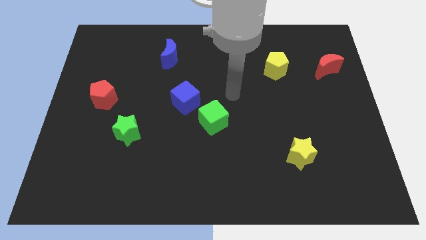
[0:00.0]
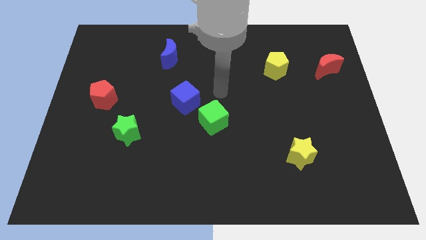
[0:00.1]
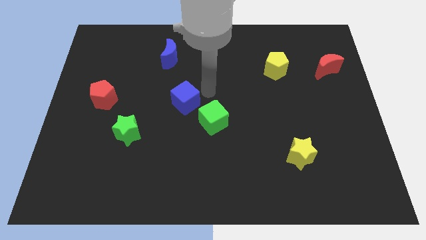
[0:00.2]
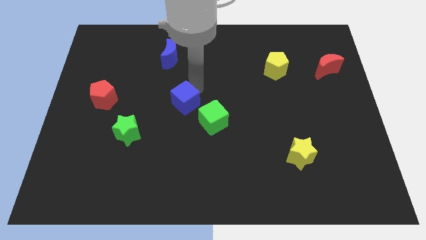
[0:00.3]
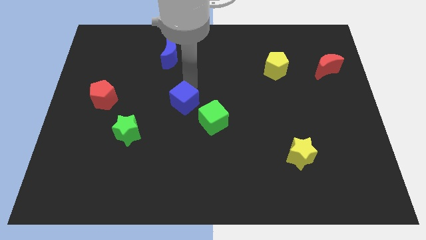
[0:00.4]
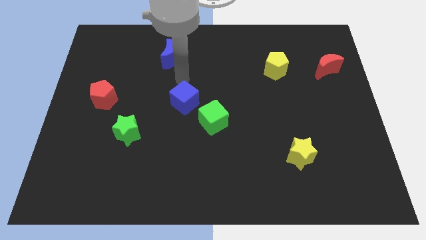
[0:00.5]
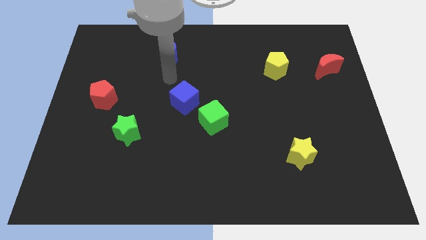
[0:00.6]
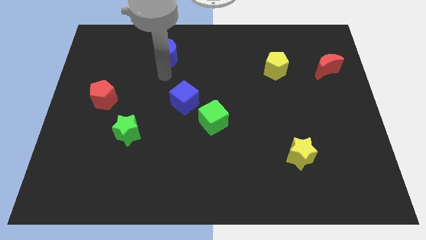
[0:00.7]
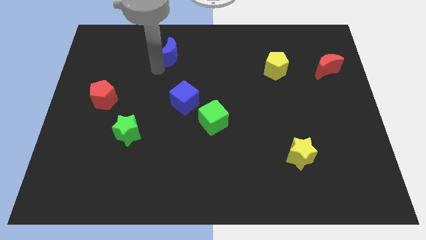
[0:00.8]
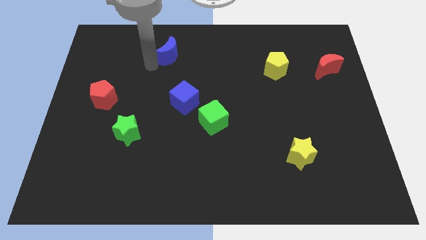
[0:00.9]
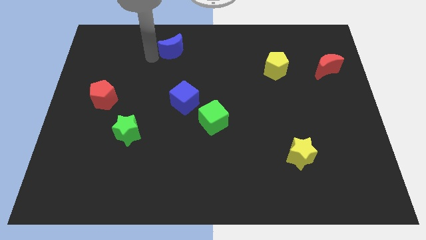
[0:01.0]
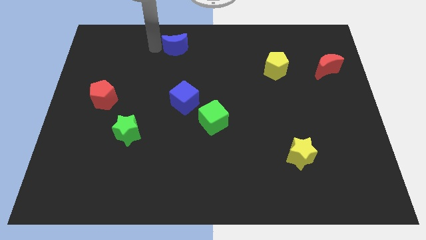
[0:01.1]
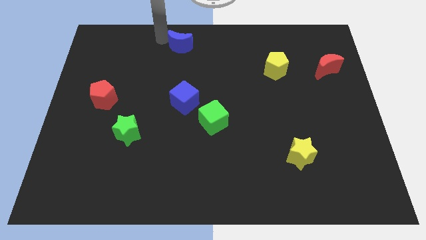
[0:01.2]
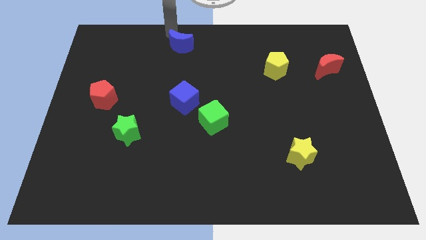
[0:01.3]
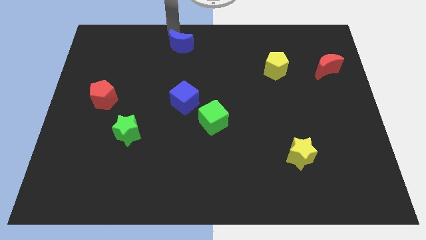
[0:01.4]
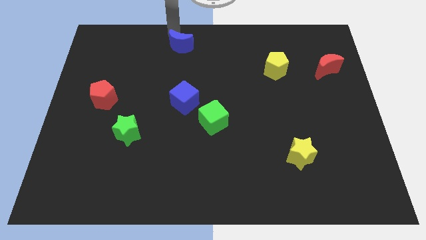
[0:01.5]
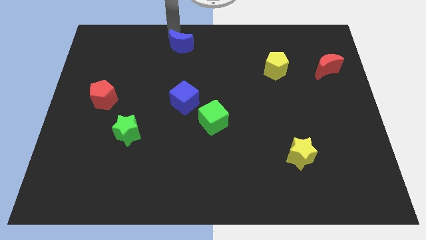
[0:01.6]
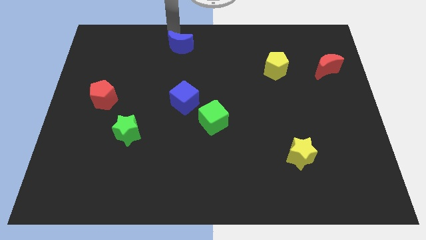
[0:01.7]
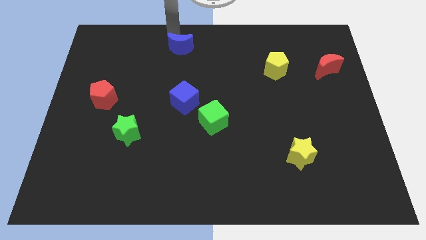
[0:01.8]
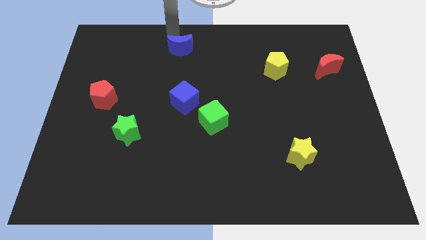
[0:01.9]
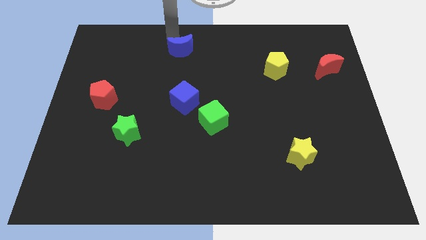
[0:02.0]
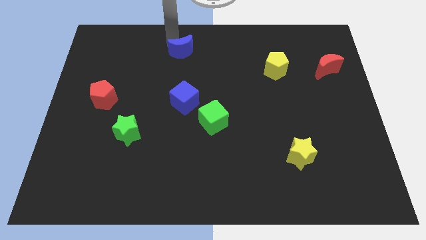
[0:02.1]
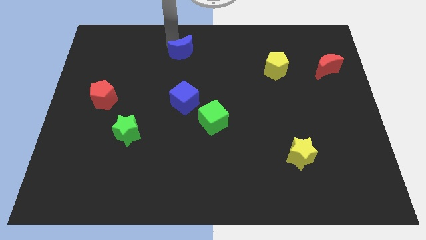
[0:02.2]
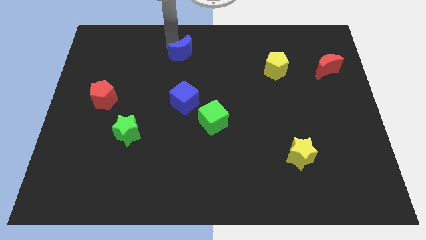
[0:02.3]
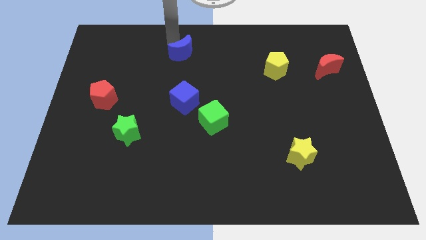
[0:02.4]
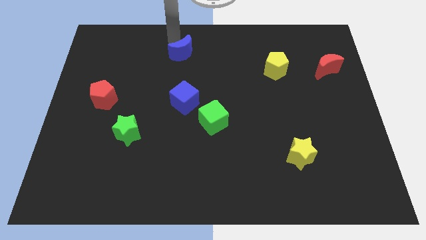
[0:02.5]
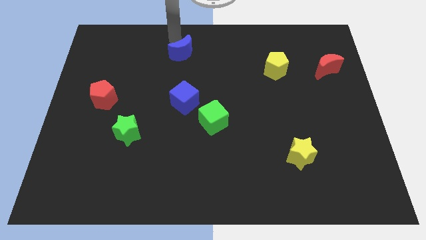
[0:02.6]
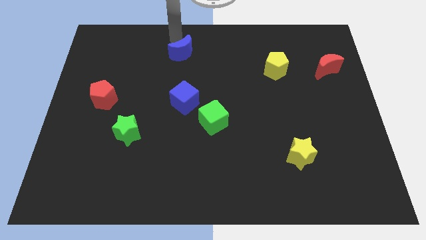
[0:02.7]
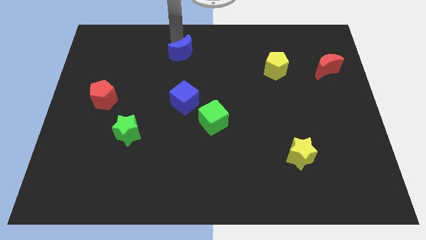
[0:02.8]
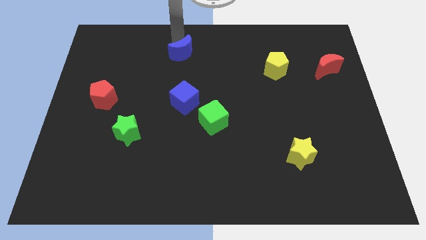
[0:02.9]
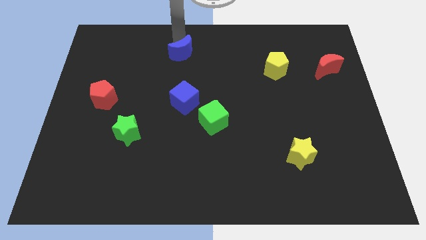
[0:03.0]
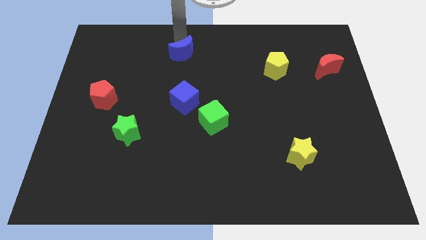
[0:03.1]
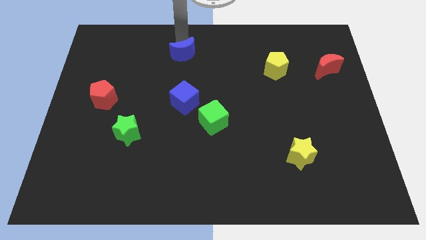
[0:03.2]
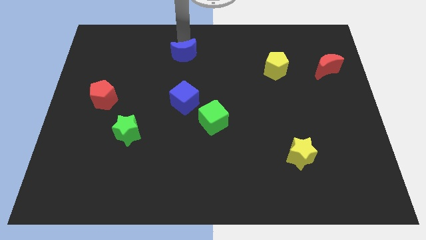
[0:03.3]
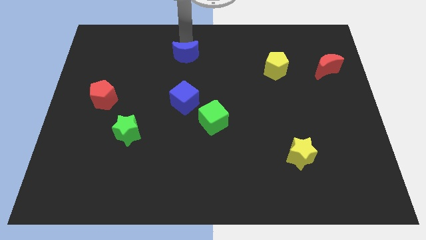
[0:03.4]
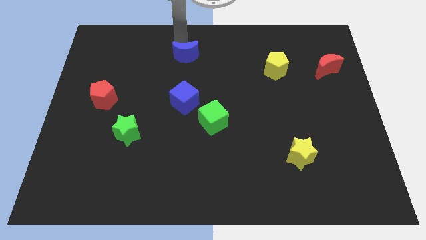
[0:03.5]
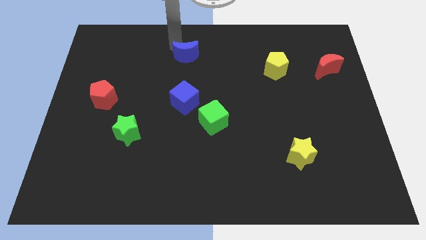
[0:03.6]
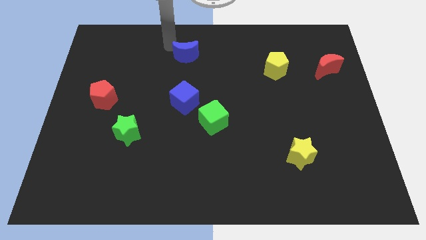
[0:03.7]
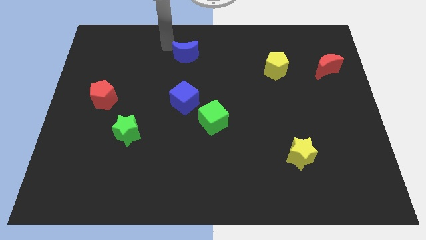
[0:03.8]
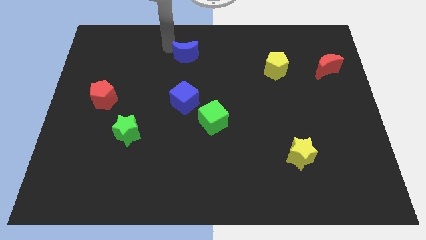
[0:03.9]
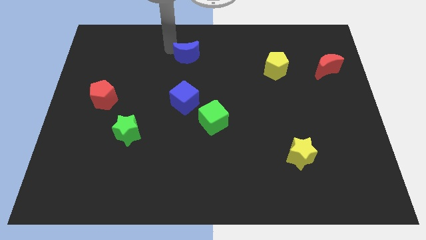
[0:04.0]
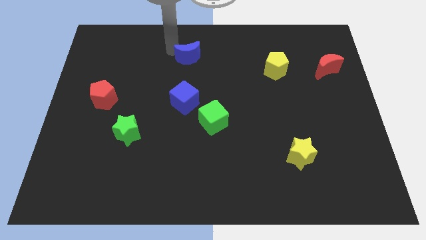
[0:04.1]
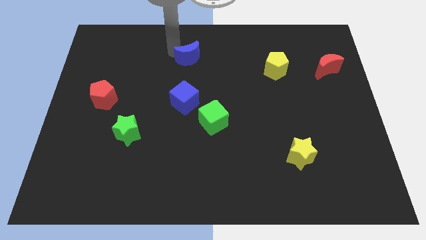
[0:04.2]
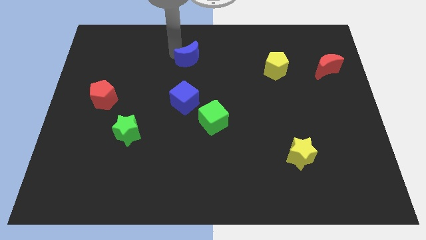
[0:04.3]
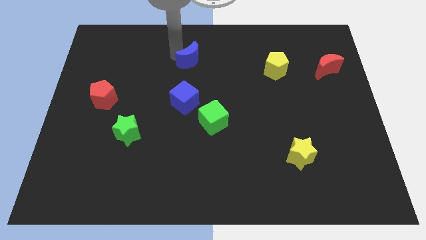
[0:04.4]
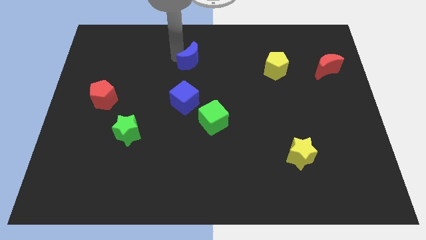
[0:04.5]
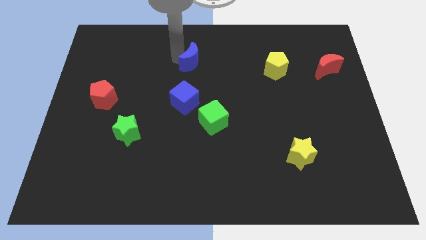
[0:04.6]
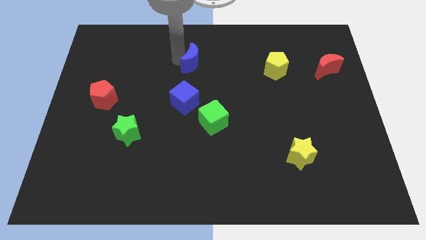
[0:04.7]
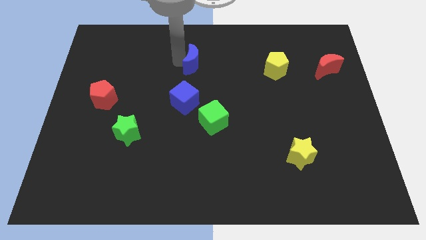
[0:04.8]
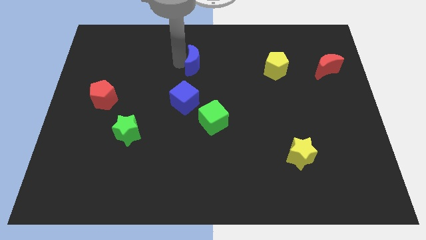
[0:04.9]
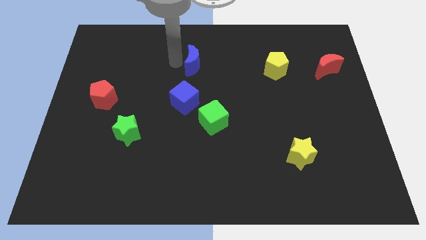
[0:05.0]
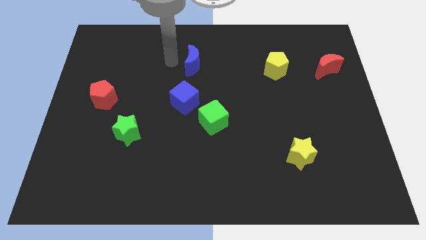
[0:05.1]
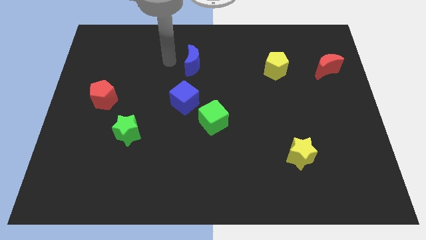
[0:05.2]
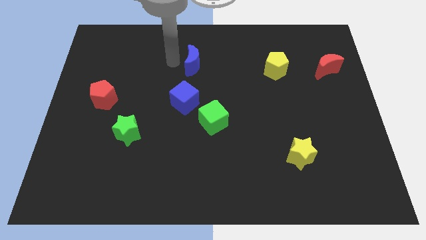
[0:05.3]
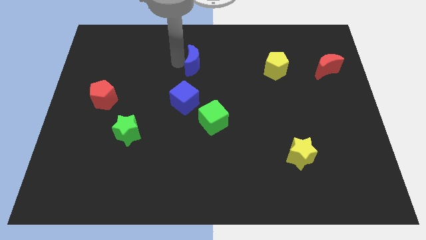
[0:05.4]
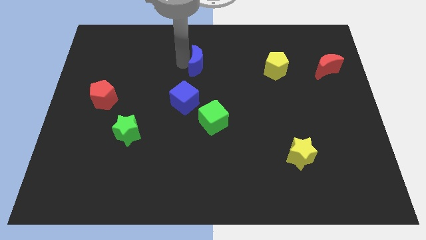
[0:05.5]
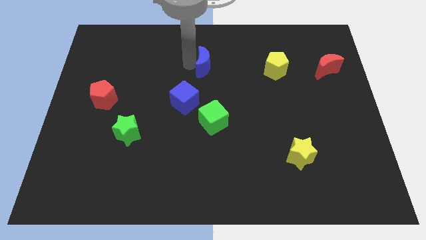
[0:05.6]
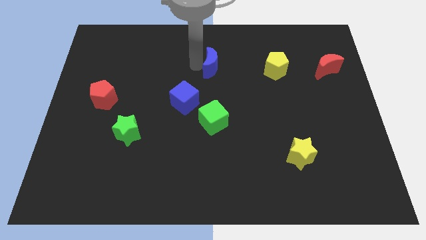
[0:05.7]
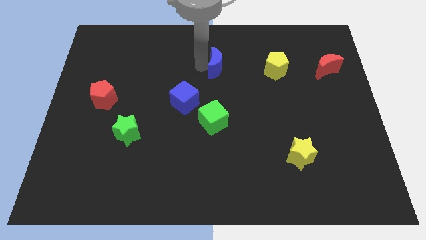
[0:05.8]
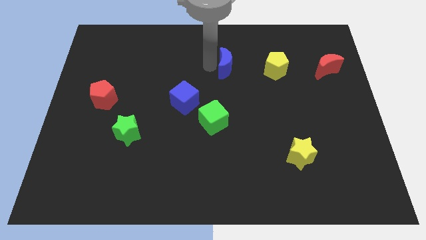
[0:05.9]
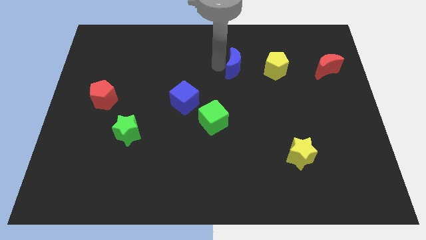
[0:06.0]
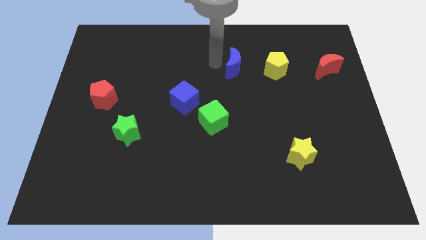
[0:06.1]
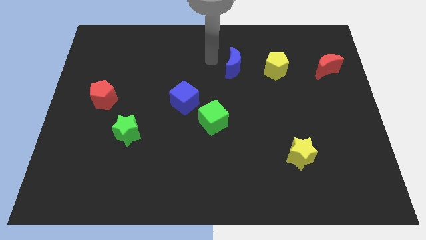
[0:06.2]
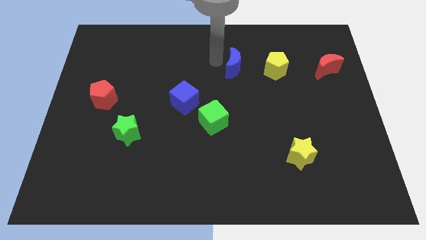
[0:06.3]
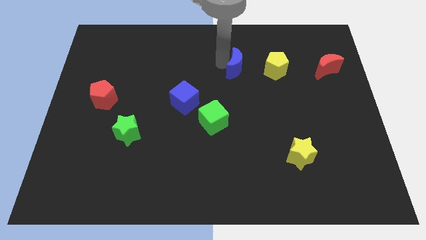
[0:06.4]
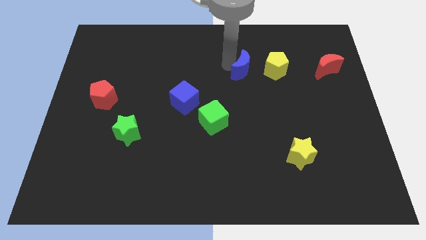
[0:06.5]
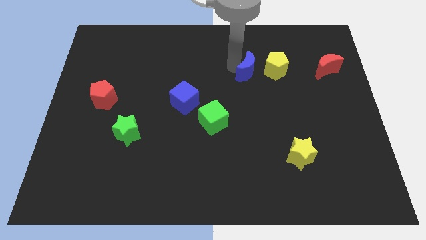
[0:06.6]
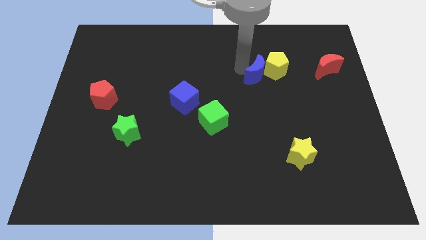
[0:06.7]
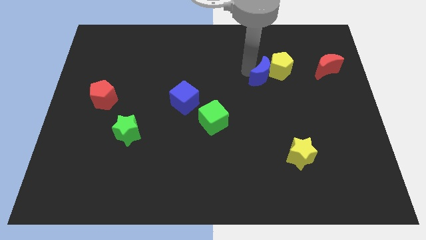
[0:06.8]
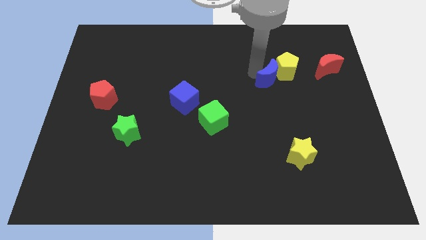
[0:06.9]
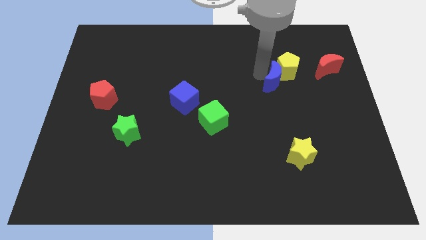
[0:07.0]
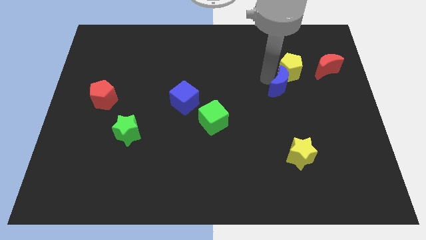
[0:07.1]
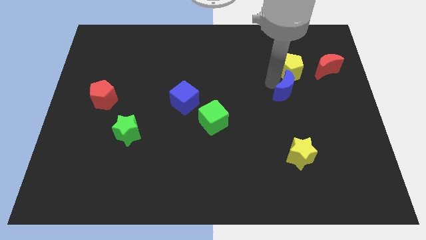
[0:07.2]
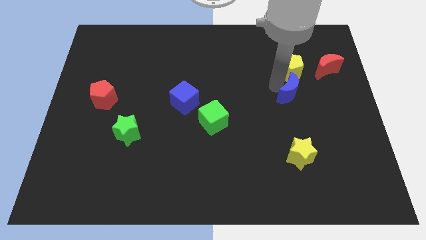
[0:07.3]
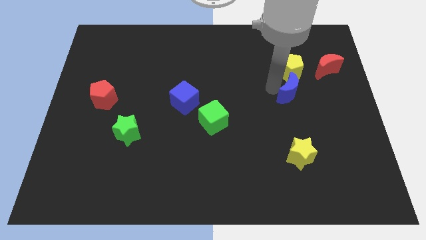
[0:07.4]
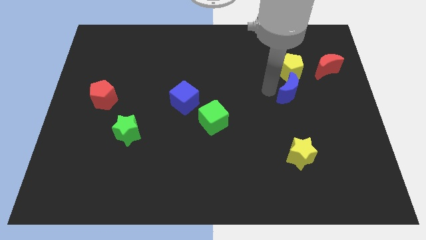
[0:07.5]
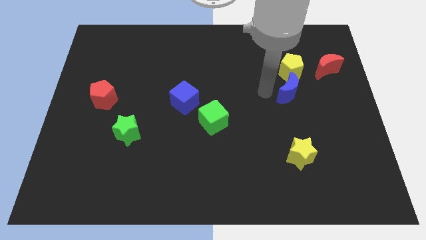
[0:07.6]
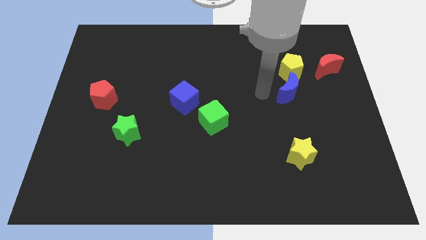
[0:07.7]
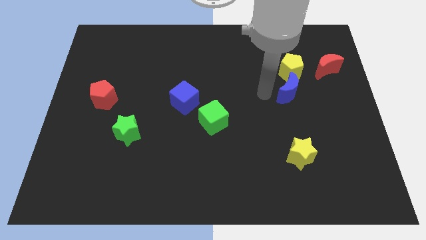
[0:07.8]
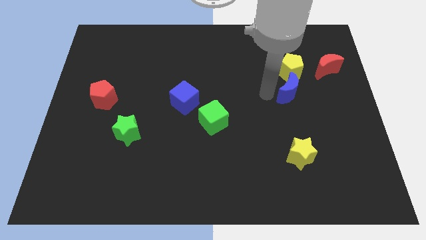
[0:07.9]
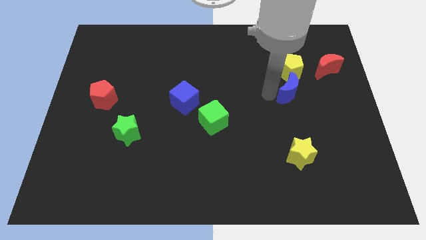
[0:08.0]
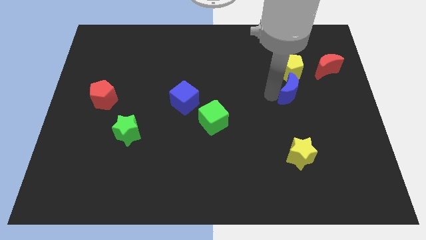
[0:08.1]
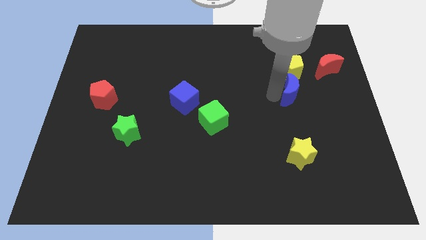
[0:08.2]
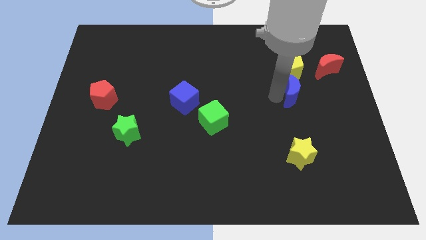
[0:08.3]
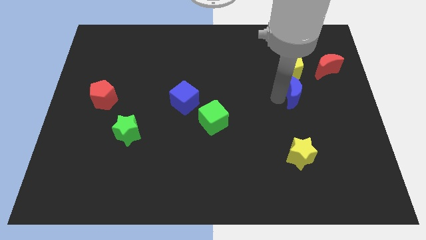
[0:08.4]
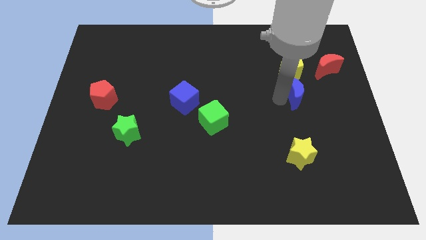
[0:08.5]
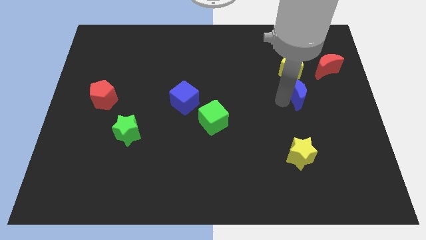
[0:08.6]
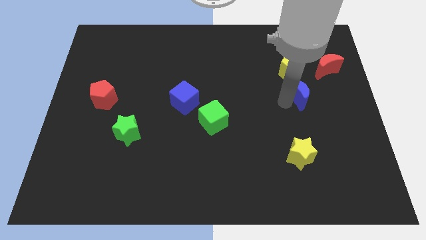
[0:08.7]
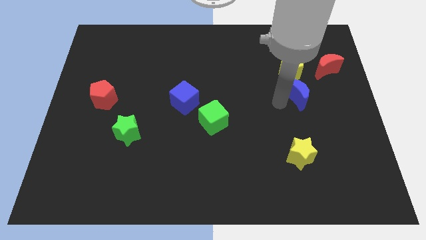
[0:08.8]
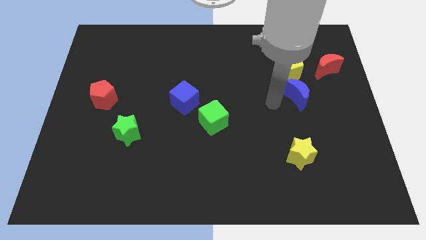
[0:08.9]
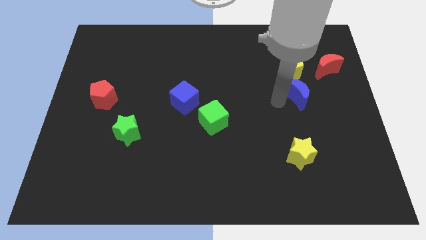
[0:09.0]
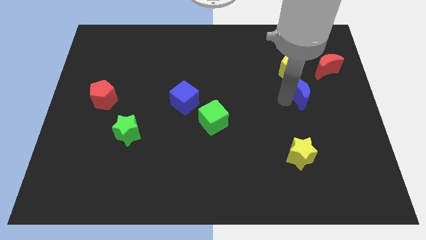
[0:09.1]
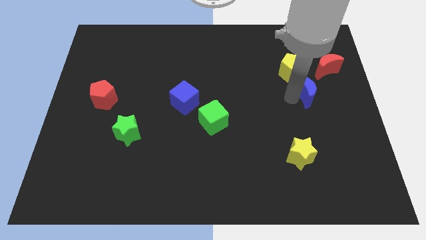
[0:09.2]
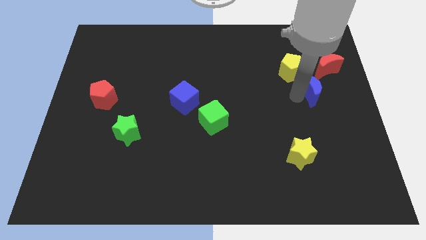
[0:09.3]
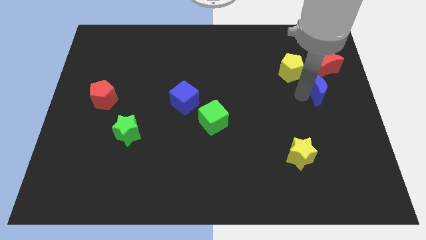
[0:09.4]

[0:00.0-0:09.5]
slide the blue moon to the center right
